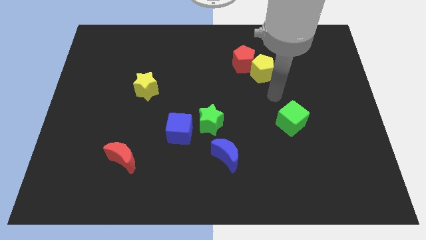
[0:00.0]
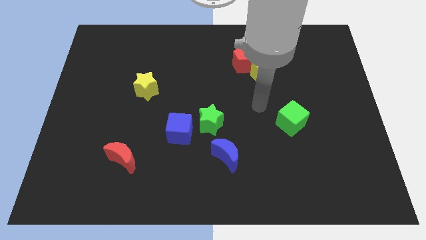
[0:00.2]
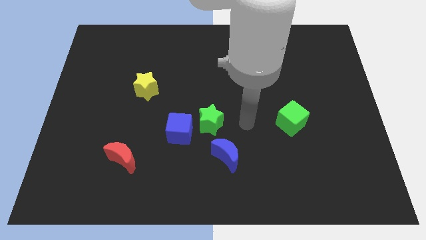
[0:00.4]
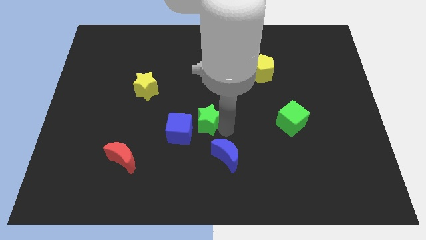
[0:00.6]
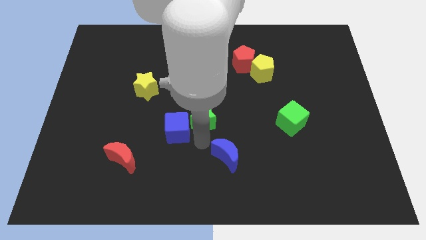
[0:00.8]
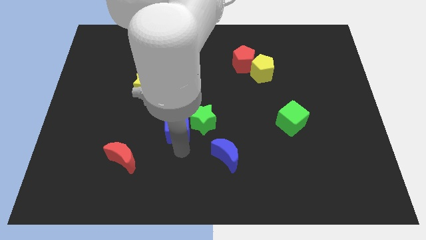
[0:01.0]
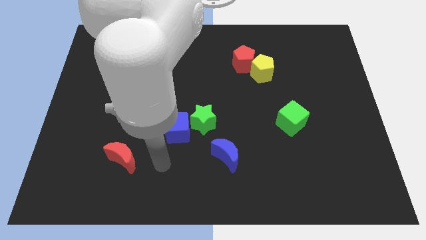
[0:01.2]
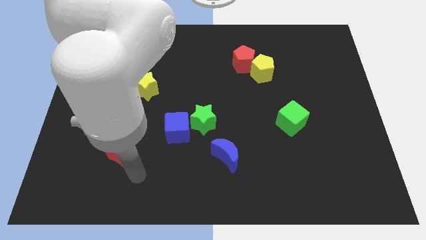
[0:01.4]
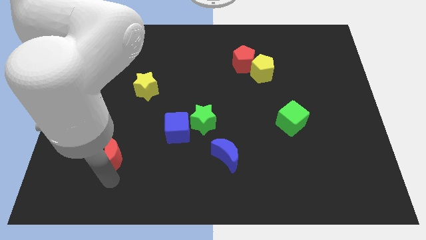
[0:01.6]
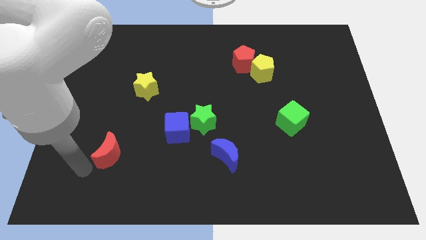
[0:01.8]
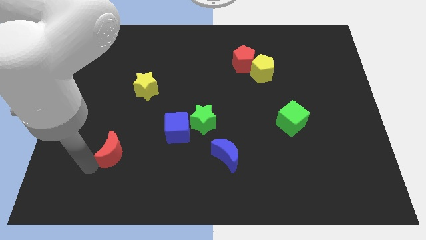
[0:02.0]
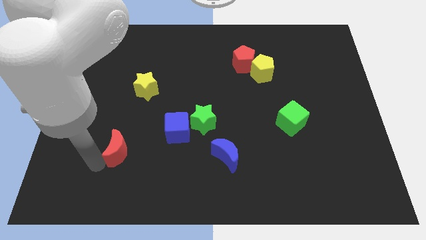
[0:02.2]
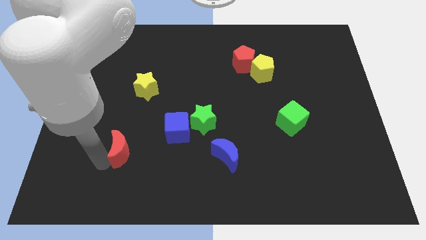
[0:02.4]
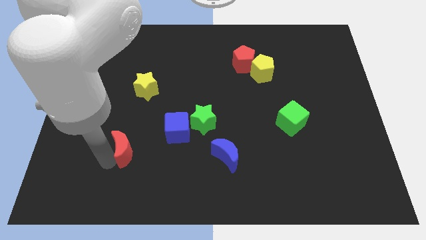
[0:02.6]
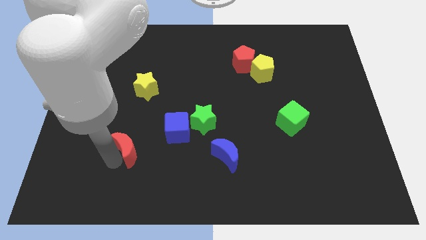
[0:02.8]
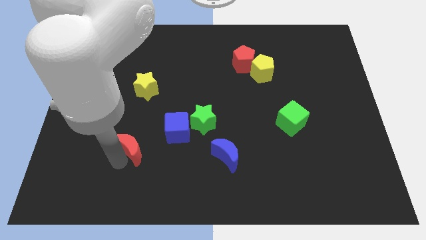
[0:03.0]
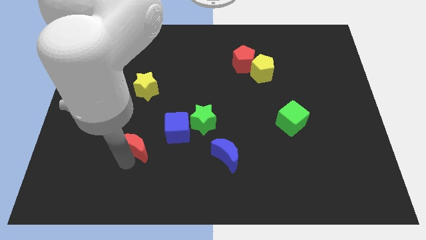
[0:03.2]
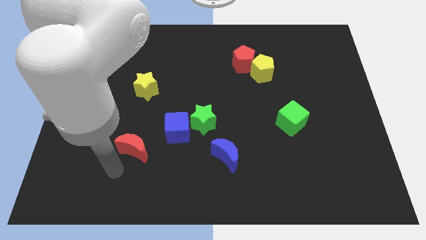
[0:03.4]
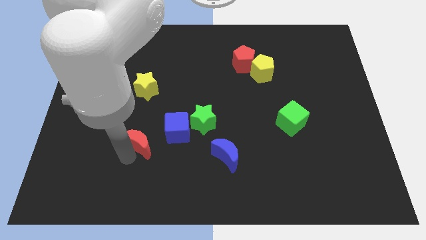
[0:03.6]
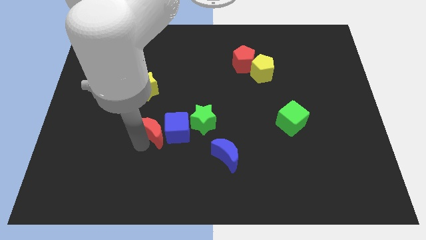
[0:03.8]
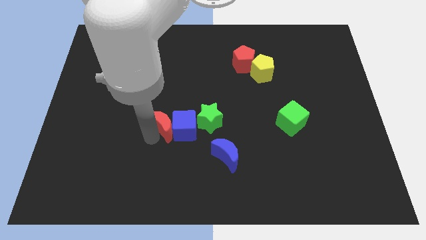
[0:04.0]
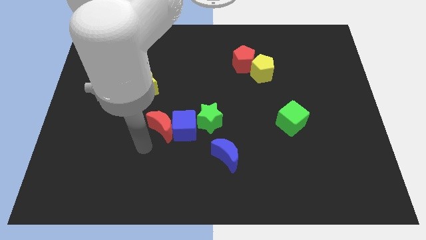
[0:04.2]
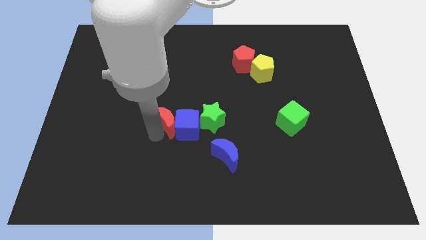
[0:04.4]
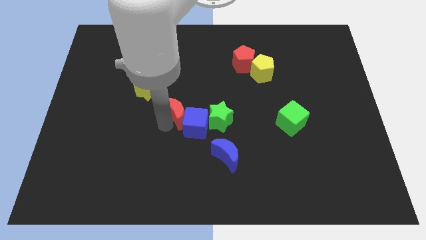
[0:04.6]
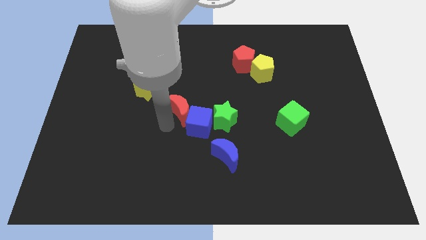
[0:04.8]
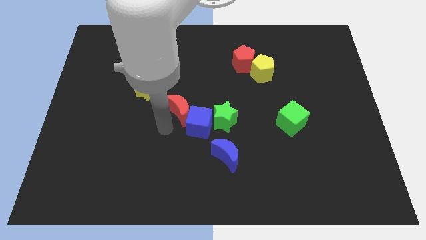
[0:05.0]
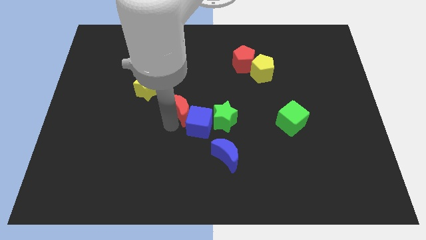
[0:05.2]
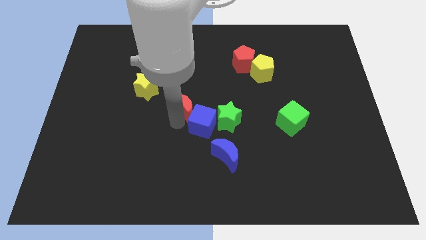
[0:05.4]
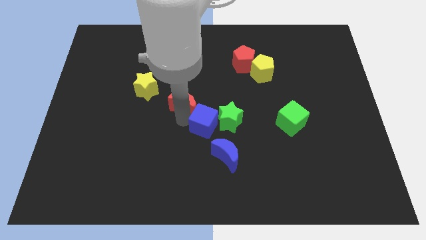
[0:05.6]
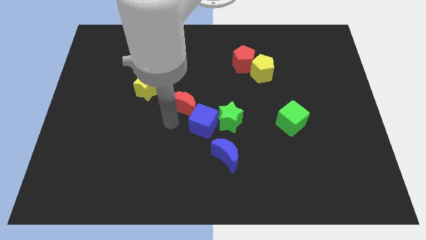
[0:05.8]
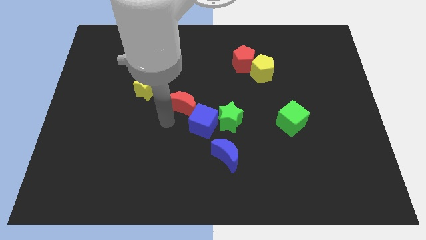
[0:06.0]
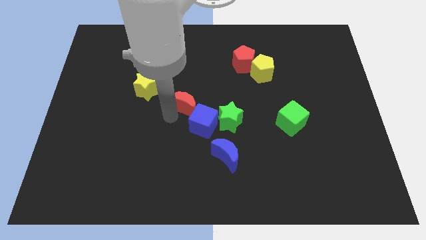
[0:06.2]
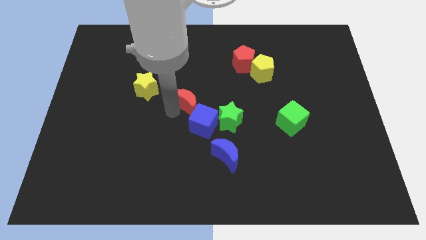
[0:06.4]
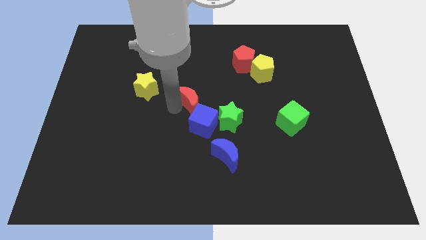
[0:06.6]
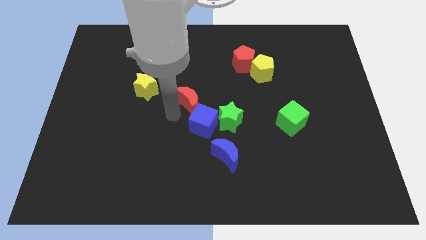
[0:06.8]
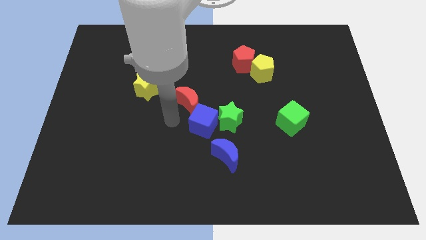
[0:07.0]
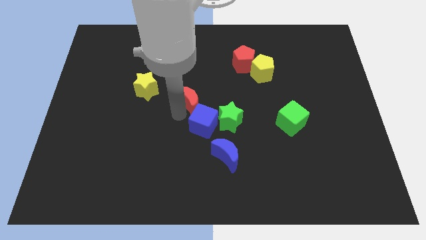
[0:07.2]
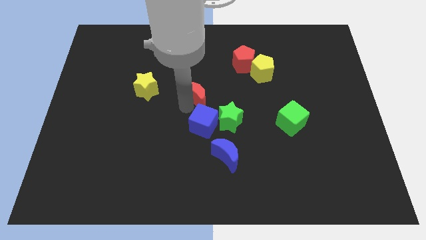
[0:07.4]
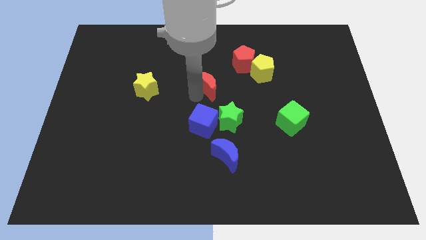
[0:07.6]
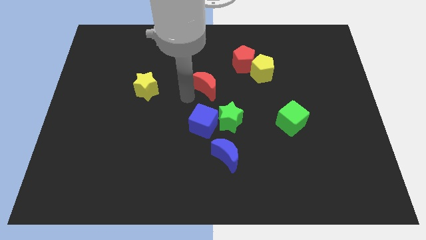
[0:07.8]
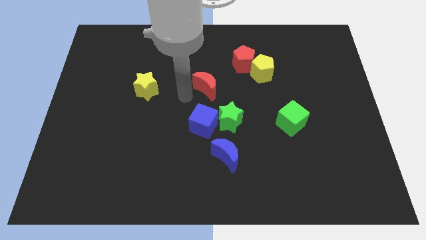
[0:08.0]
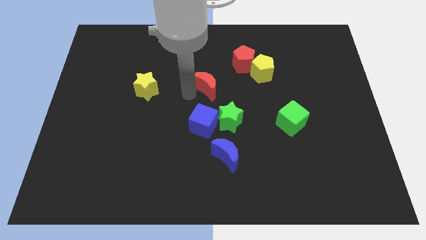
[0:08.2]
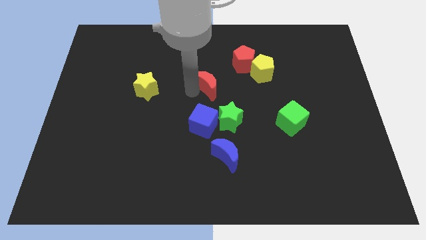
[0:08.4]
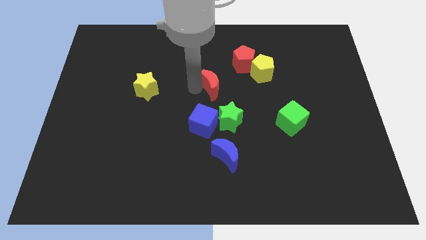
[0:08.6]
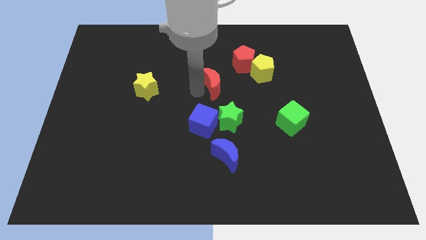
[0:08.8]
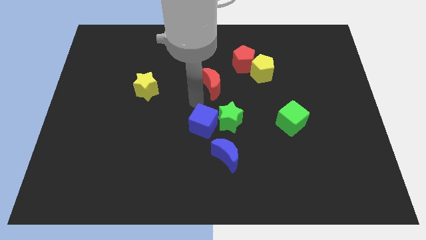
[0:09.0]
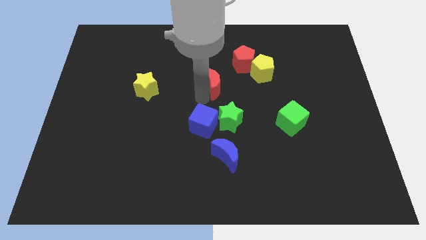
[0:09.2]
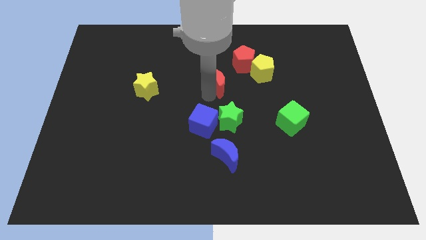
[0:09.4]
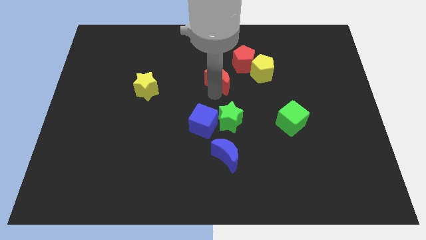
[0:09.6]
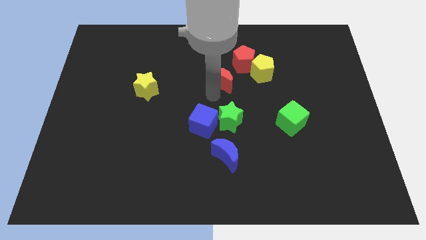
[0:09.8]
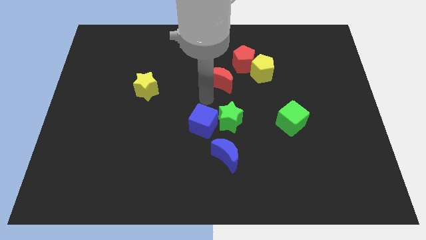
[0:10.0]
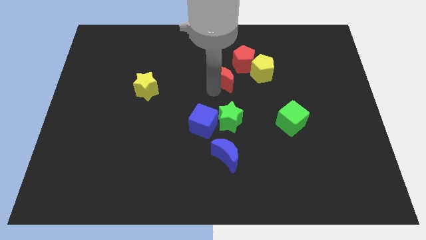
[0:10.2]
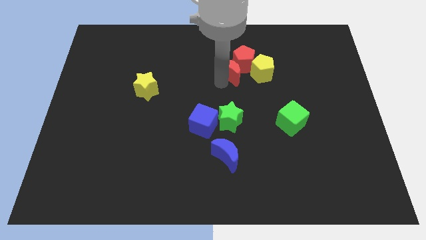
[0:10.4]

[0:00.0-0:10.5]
slide the red moon towards the red pentagon

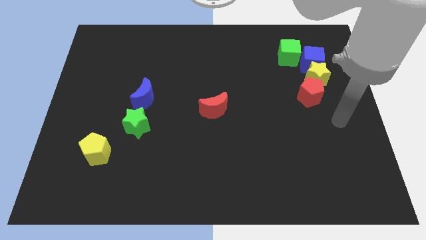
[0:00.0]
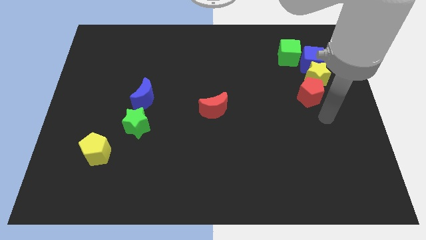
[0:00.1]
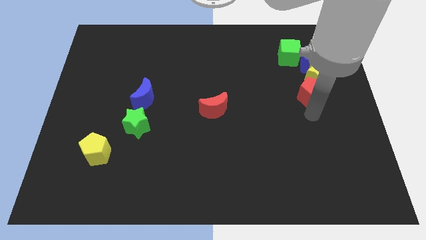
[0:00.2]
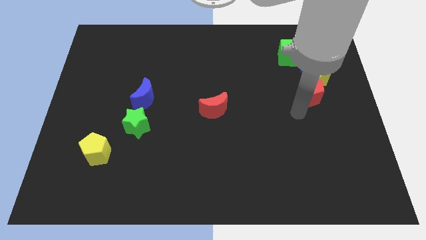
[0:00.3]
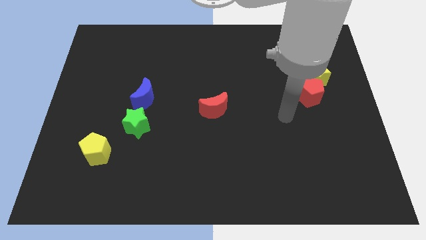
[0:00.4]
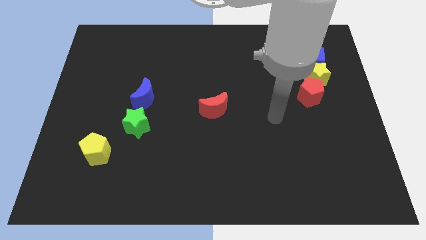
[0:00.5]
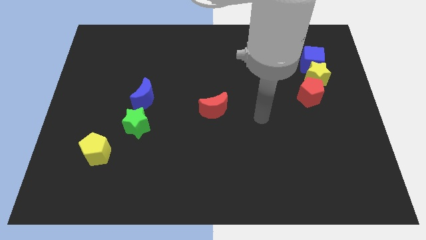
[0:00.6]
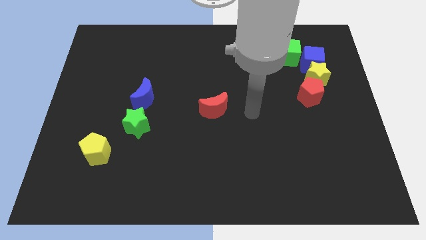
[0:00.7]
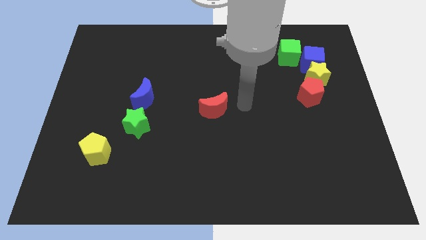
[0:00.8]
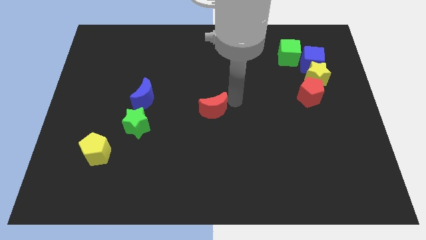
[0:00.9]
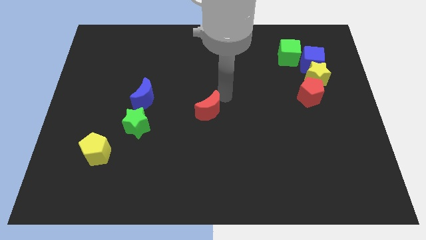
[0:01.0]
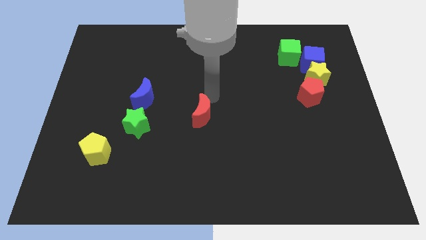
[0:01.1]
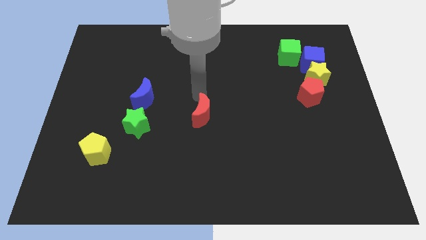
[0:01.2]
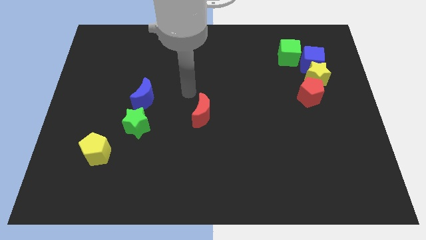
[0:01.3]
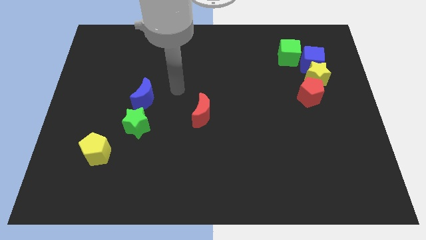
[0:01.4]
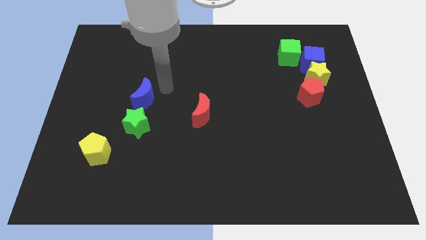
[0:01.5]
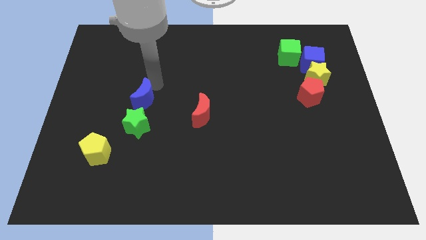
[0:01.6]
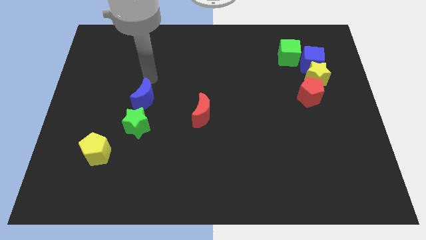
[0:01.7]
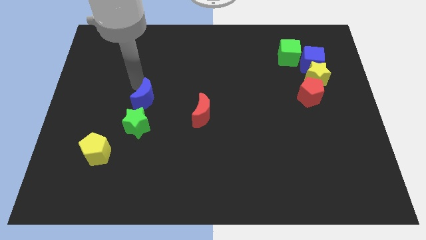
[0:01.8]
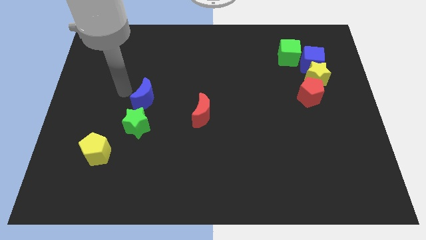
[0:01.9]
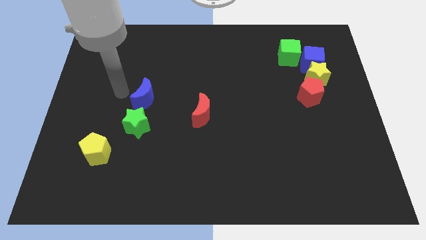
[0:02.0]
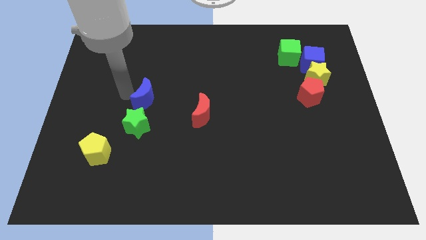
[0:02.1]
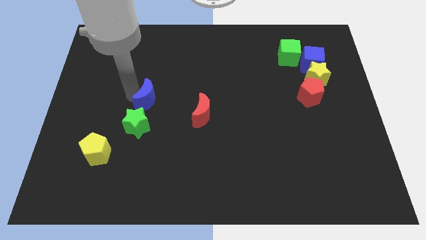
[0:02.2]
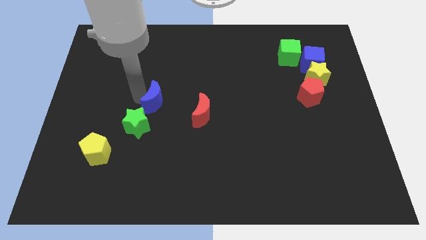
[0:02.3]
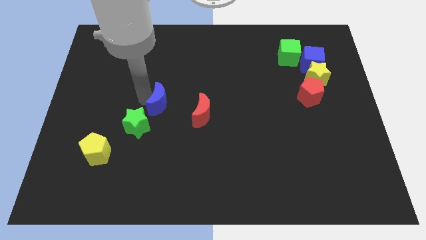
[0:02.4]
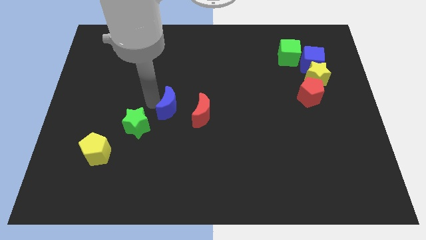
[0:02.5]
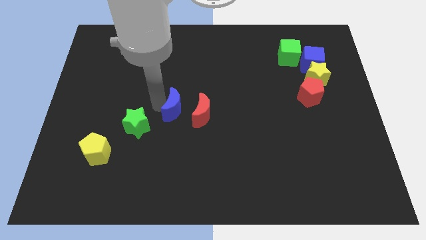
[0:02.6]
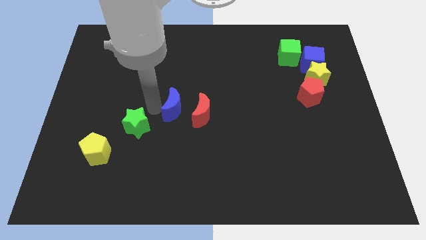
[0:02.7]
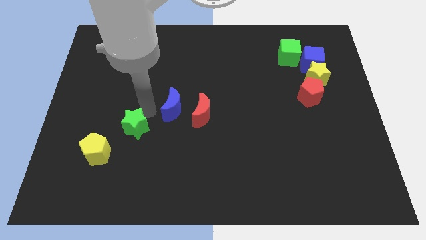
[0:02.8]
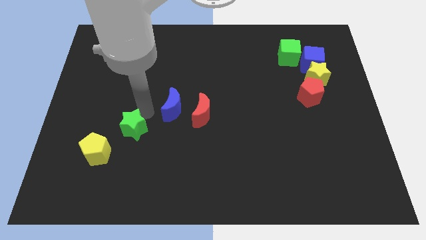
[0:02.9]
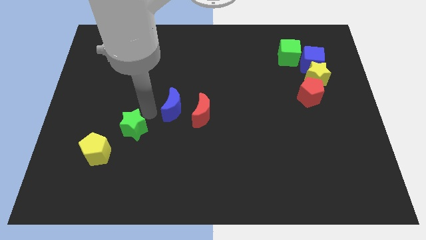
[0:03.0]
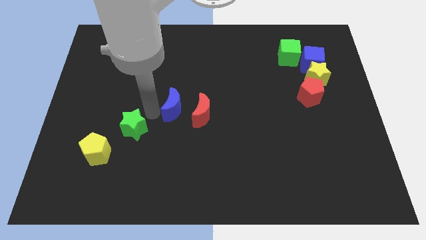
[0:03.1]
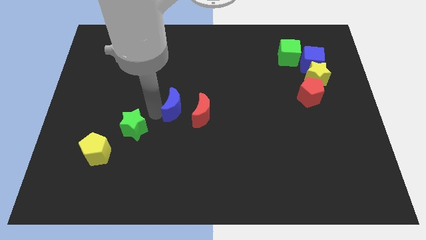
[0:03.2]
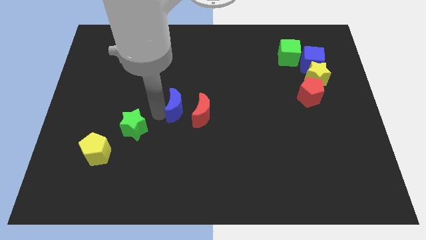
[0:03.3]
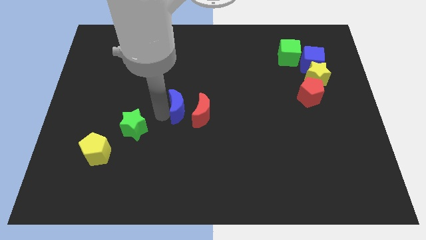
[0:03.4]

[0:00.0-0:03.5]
slide the blue moon towards the red moon
